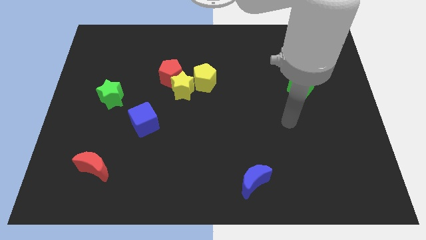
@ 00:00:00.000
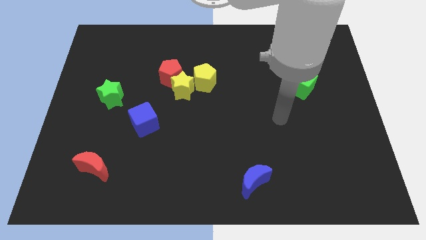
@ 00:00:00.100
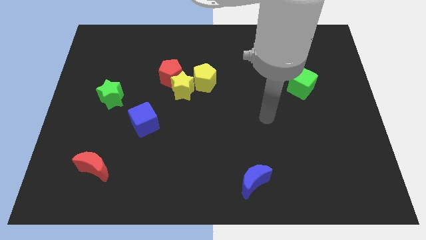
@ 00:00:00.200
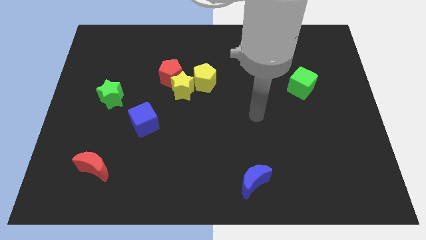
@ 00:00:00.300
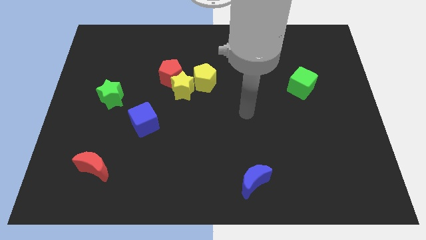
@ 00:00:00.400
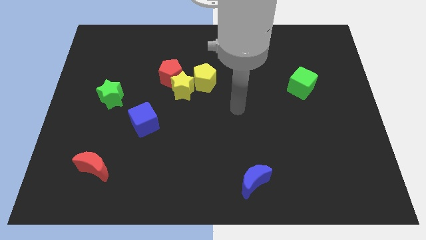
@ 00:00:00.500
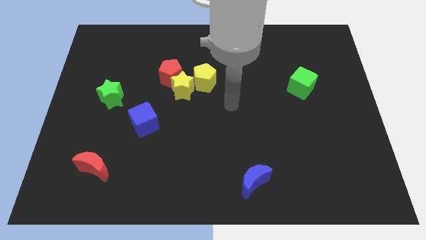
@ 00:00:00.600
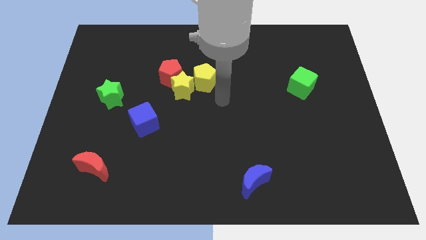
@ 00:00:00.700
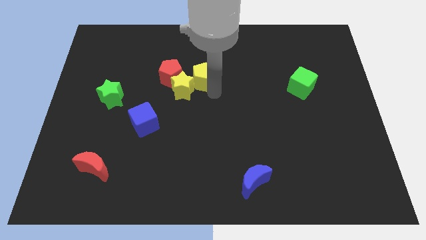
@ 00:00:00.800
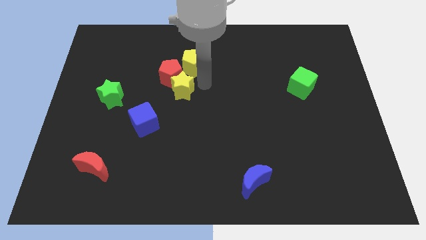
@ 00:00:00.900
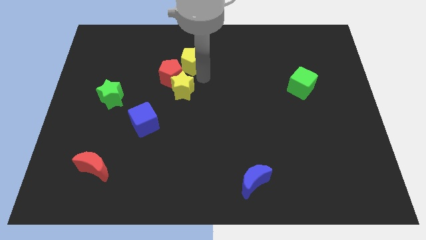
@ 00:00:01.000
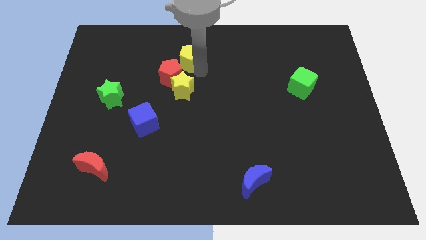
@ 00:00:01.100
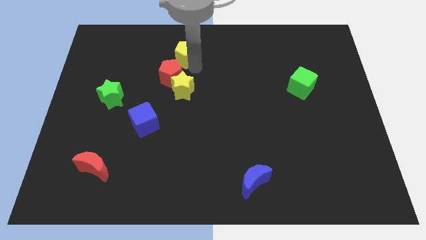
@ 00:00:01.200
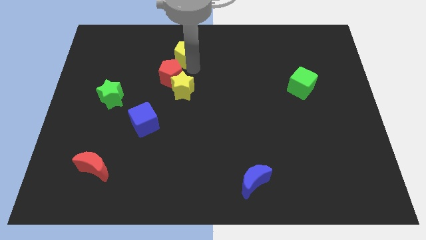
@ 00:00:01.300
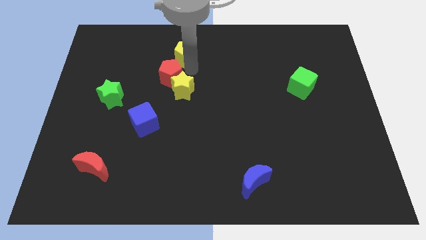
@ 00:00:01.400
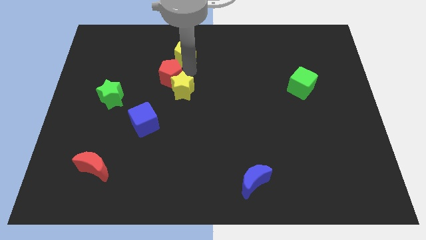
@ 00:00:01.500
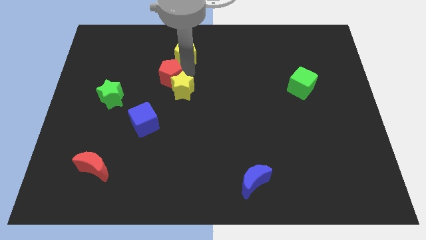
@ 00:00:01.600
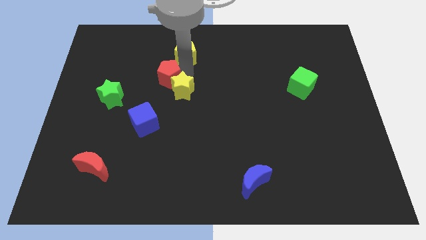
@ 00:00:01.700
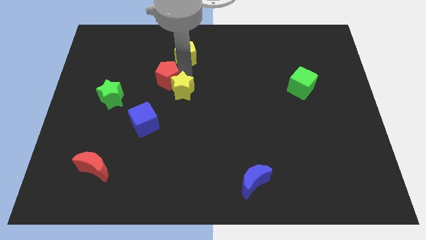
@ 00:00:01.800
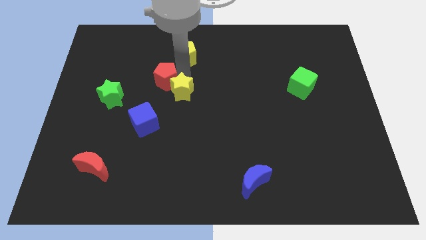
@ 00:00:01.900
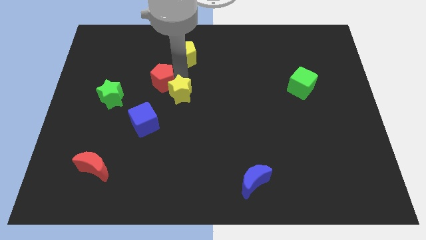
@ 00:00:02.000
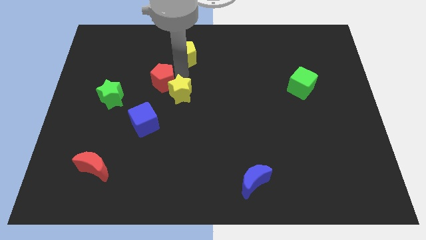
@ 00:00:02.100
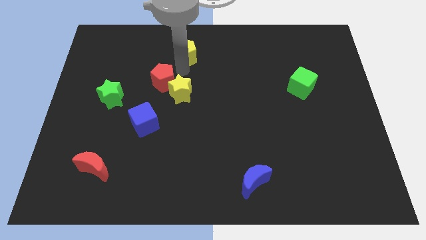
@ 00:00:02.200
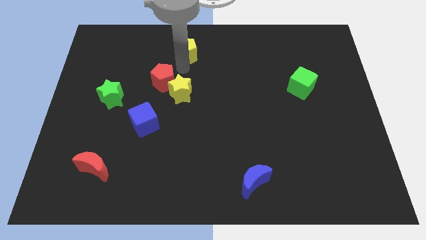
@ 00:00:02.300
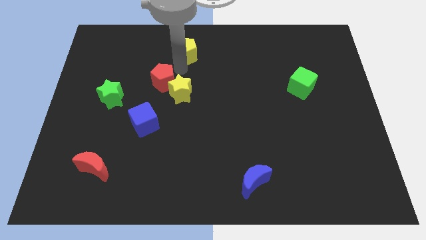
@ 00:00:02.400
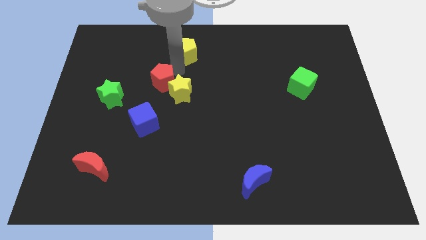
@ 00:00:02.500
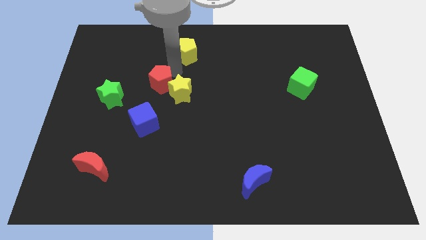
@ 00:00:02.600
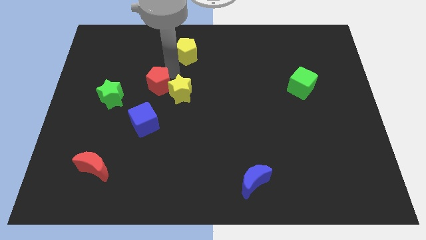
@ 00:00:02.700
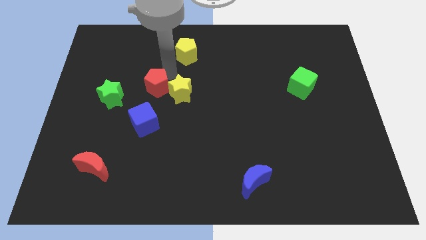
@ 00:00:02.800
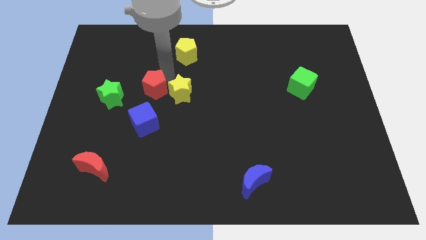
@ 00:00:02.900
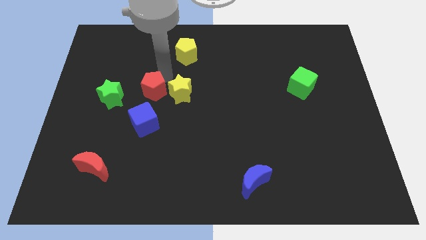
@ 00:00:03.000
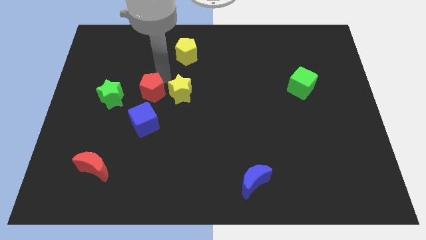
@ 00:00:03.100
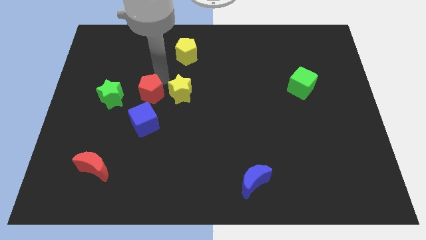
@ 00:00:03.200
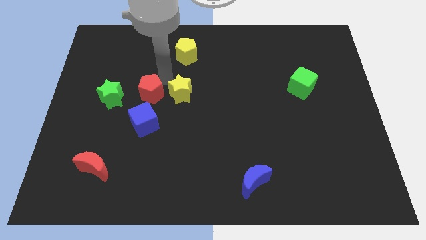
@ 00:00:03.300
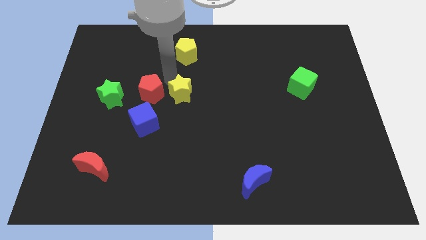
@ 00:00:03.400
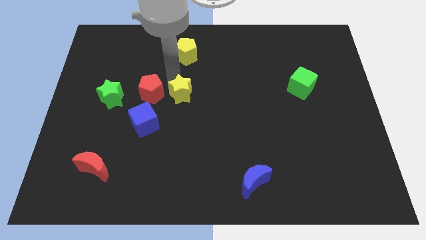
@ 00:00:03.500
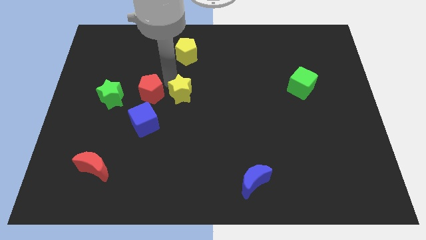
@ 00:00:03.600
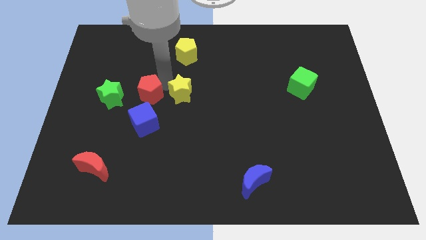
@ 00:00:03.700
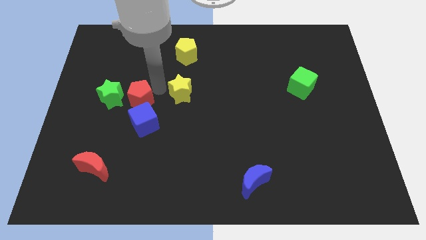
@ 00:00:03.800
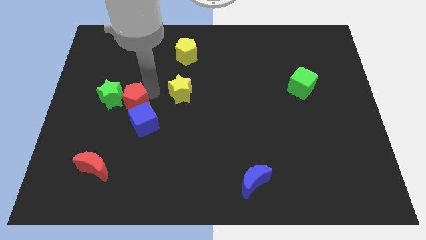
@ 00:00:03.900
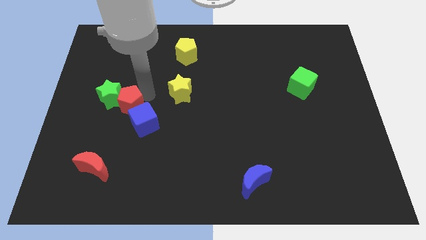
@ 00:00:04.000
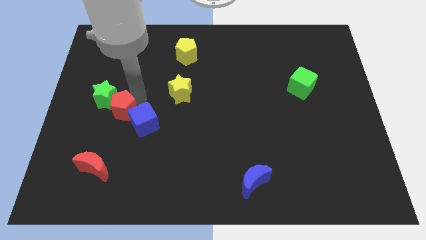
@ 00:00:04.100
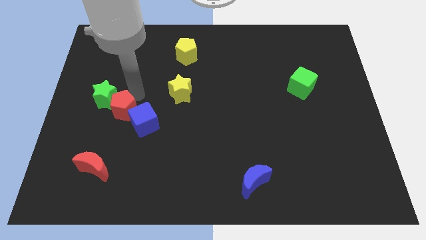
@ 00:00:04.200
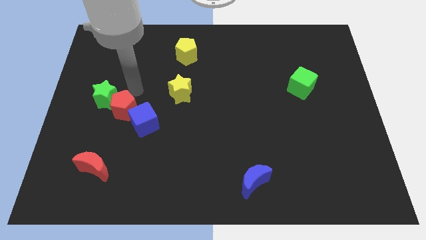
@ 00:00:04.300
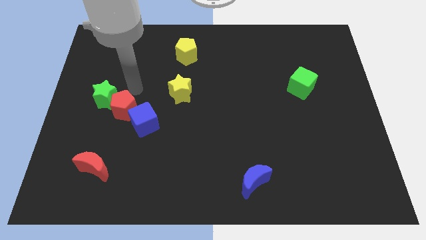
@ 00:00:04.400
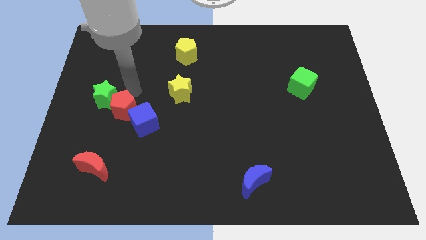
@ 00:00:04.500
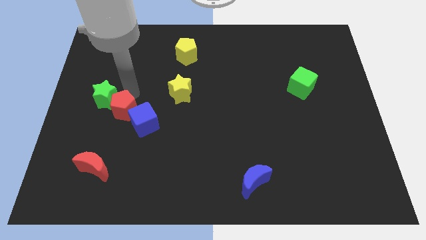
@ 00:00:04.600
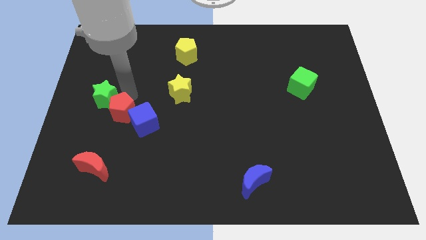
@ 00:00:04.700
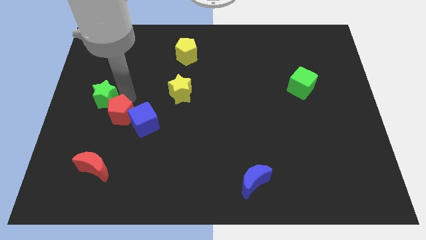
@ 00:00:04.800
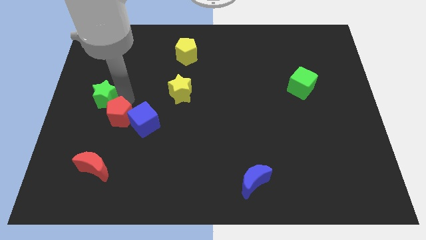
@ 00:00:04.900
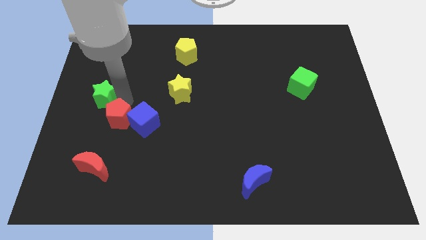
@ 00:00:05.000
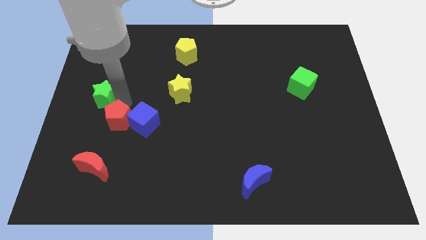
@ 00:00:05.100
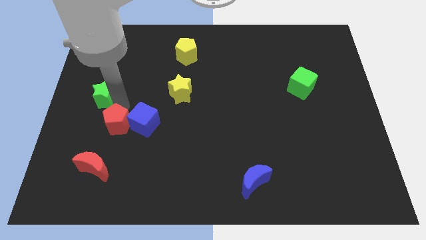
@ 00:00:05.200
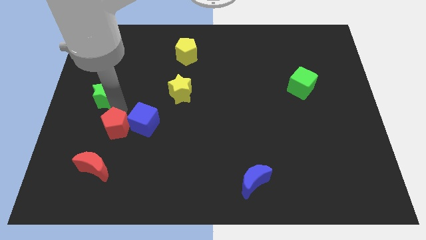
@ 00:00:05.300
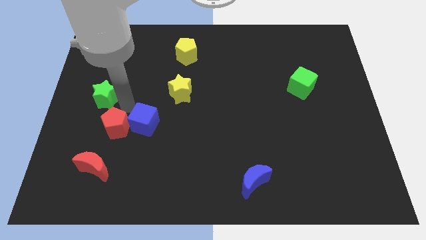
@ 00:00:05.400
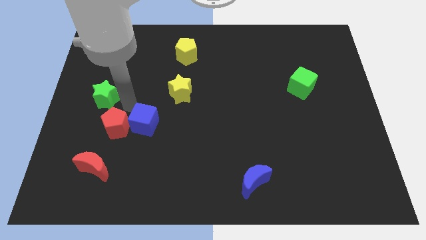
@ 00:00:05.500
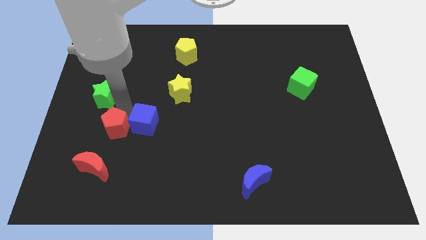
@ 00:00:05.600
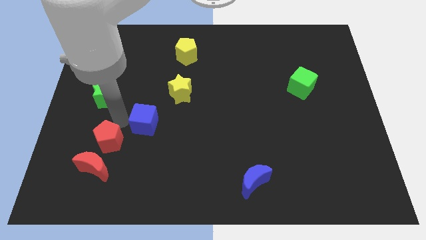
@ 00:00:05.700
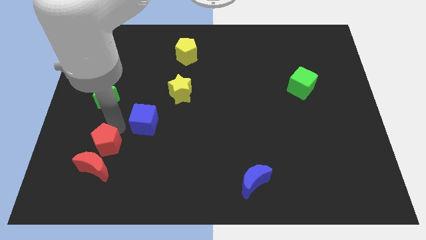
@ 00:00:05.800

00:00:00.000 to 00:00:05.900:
push the red pentagon towards the red moon
